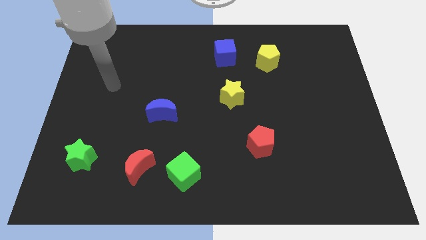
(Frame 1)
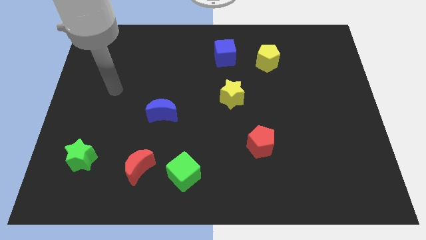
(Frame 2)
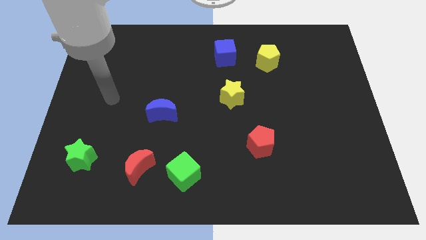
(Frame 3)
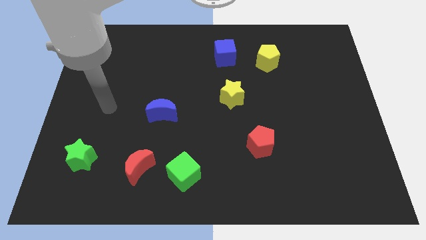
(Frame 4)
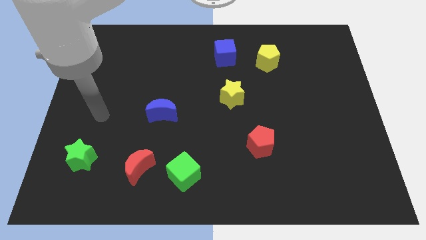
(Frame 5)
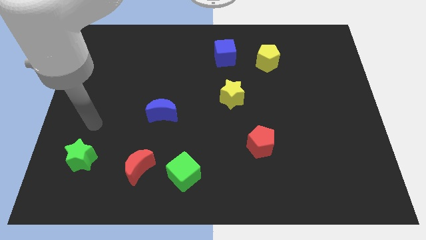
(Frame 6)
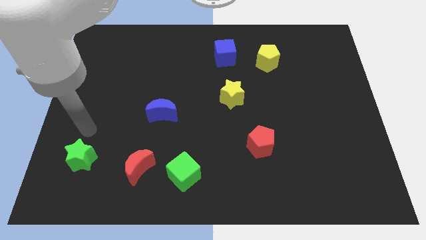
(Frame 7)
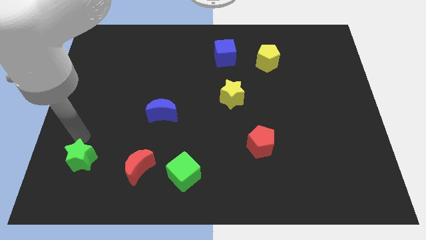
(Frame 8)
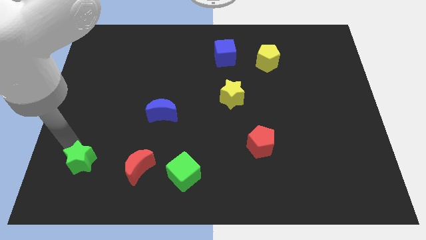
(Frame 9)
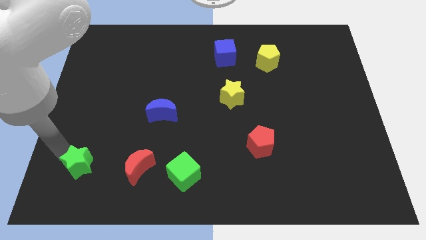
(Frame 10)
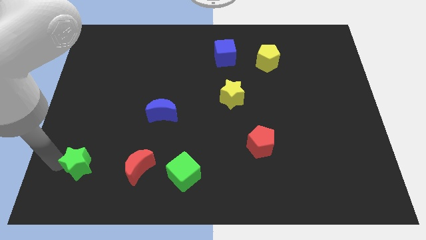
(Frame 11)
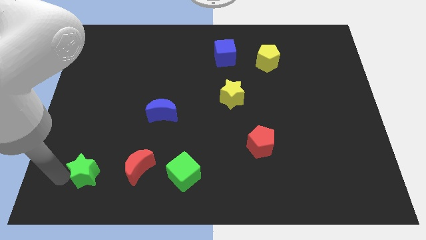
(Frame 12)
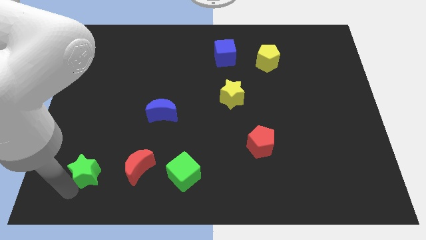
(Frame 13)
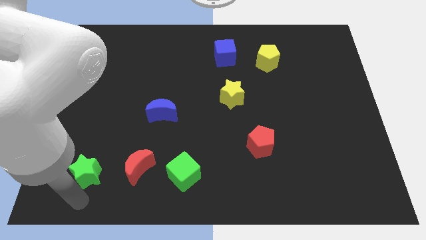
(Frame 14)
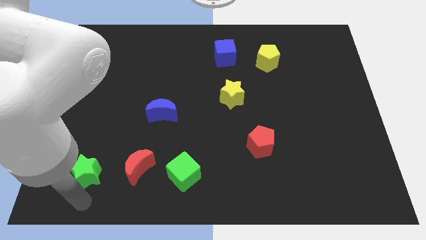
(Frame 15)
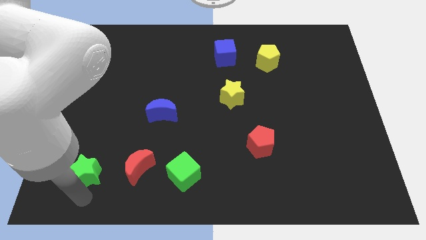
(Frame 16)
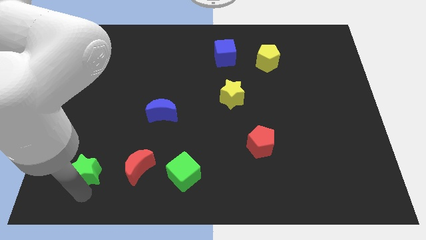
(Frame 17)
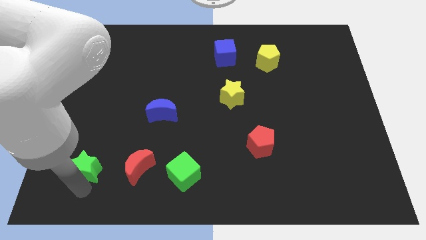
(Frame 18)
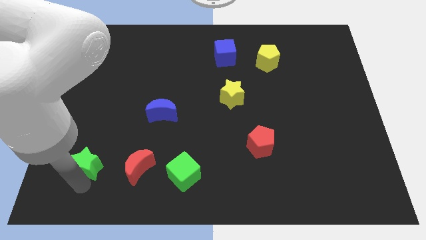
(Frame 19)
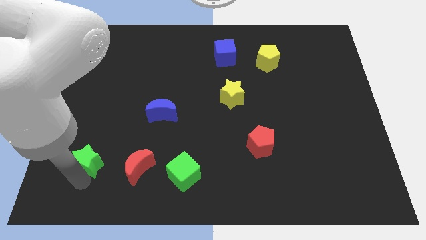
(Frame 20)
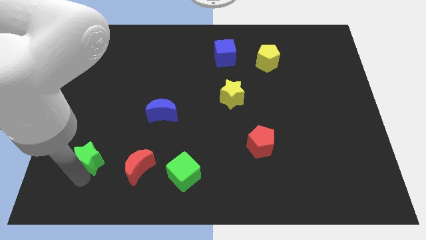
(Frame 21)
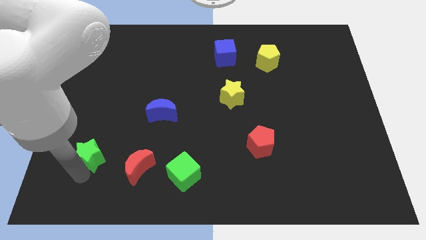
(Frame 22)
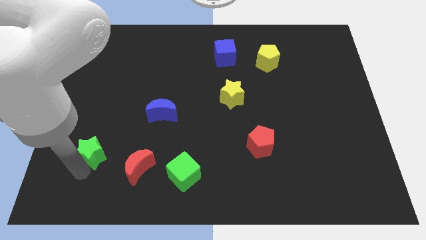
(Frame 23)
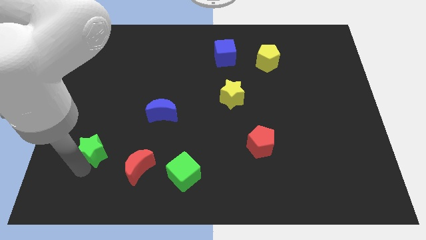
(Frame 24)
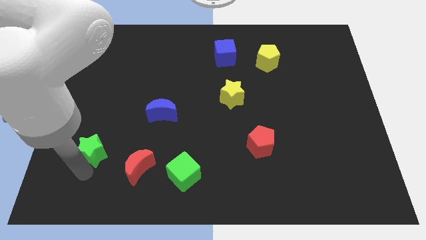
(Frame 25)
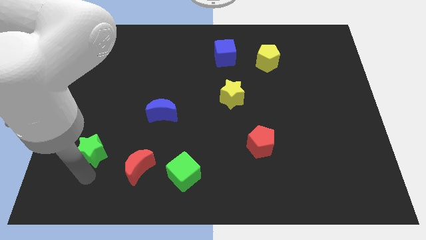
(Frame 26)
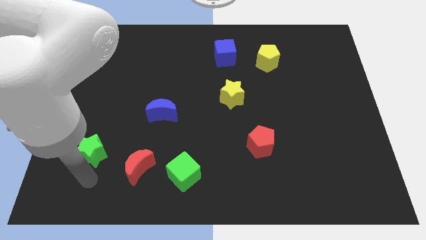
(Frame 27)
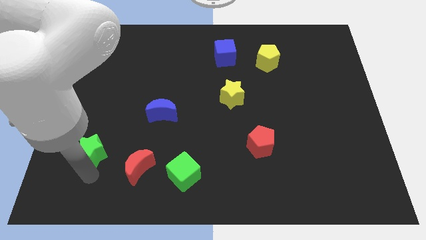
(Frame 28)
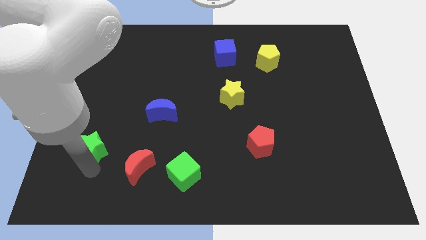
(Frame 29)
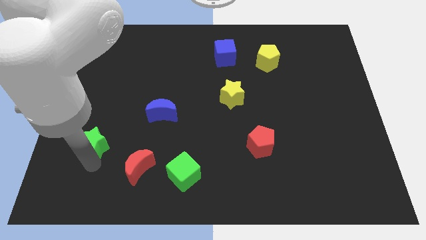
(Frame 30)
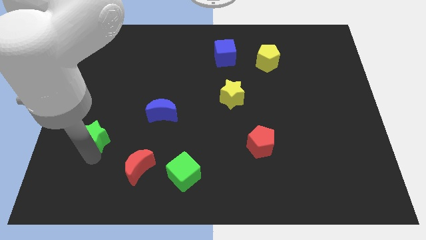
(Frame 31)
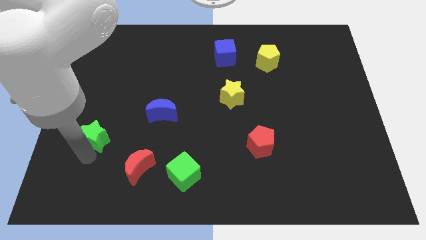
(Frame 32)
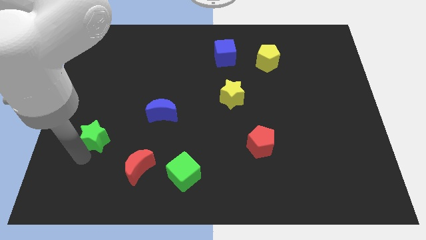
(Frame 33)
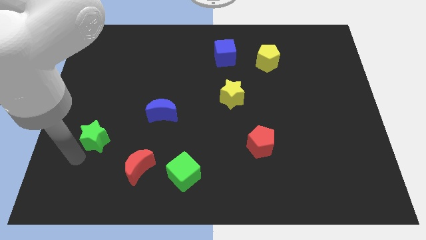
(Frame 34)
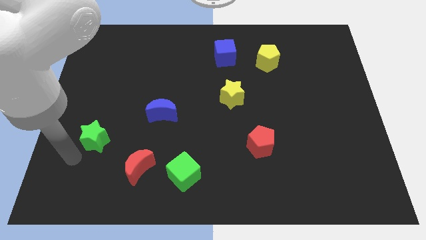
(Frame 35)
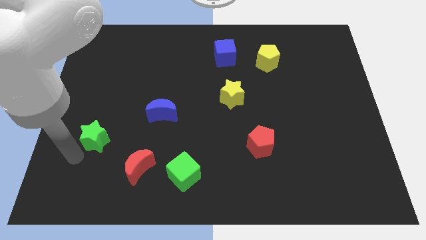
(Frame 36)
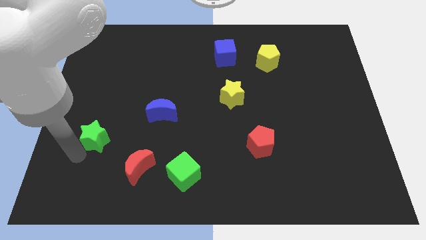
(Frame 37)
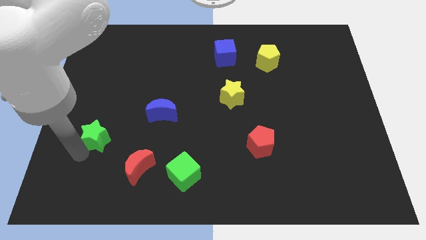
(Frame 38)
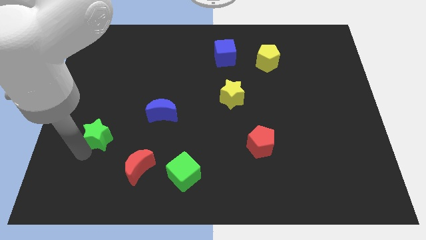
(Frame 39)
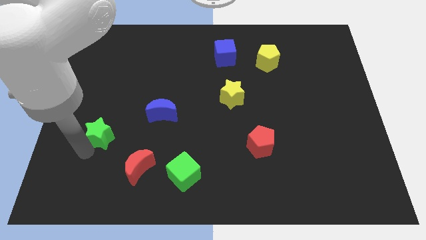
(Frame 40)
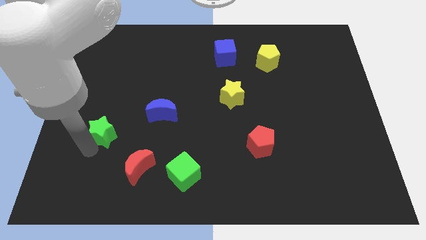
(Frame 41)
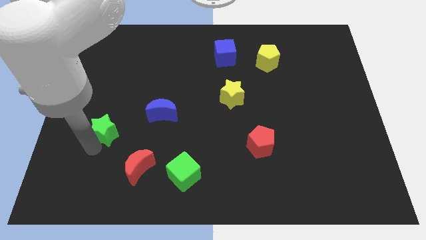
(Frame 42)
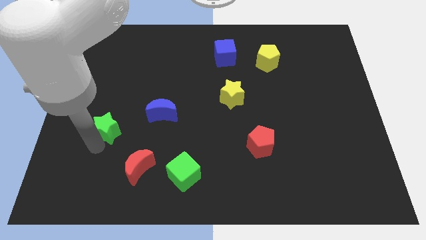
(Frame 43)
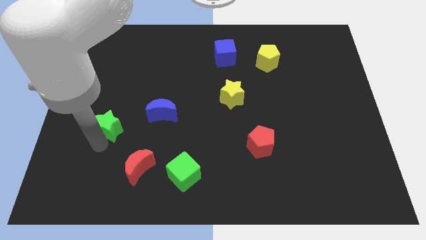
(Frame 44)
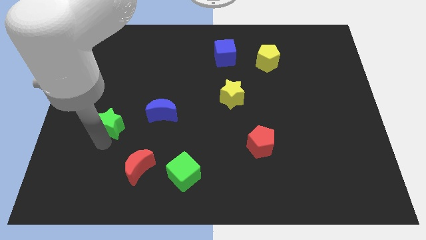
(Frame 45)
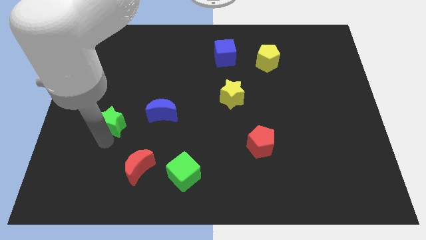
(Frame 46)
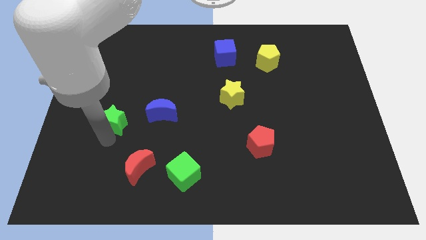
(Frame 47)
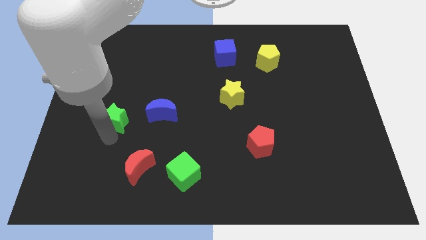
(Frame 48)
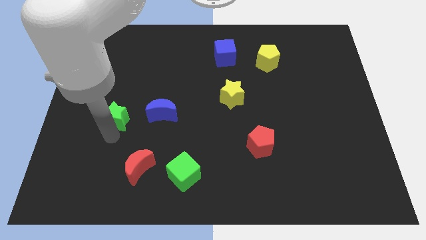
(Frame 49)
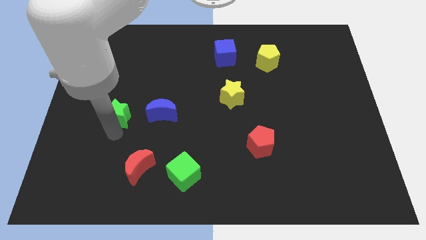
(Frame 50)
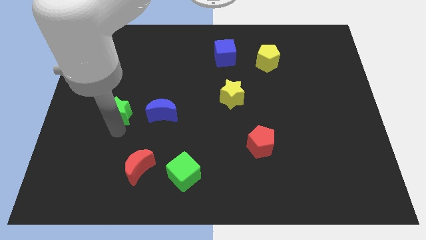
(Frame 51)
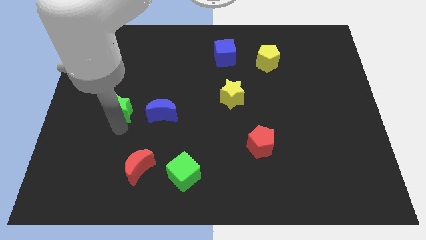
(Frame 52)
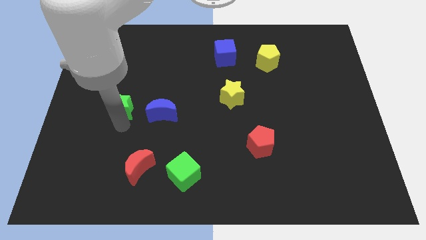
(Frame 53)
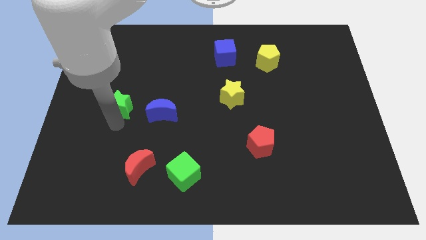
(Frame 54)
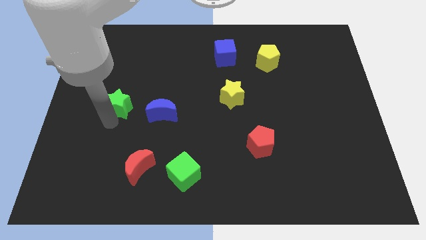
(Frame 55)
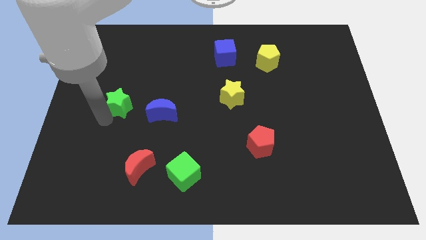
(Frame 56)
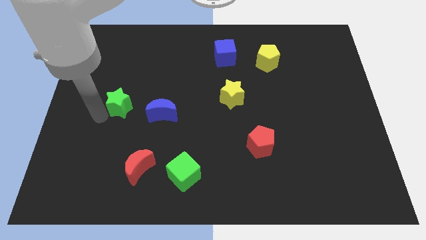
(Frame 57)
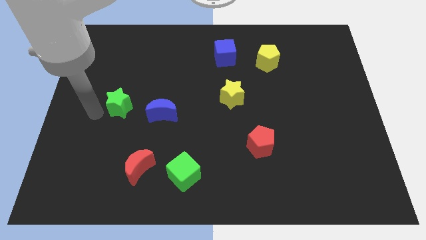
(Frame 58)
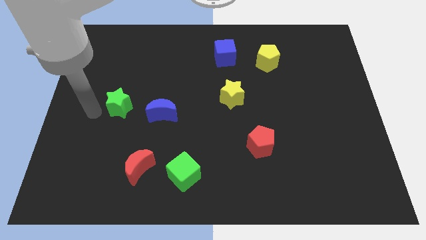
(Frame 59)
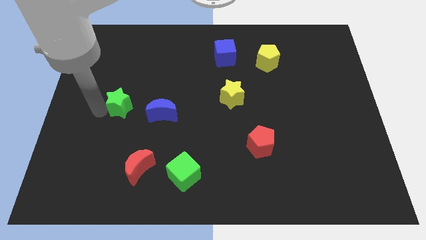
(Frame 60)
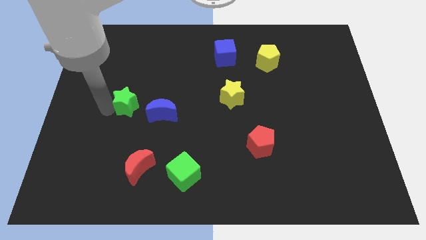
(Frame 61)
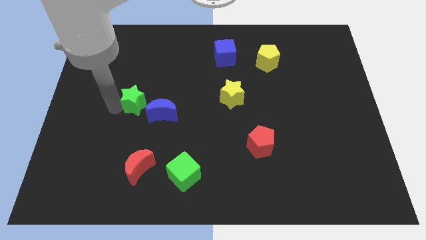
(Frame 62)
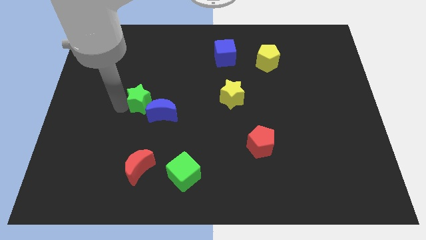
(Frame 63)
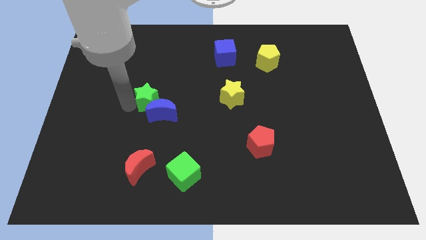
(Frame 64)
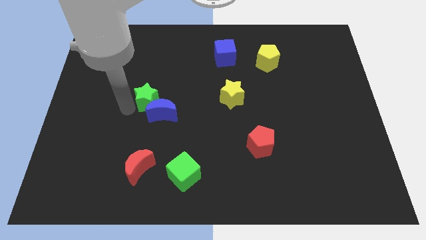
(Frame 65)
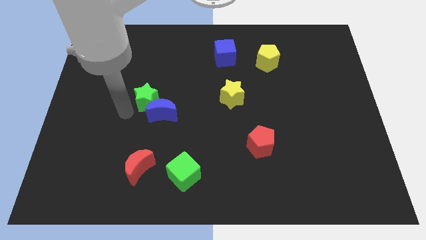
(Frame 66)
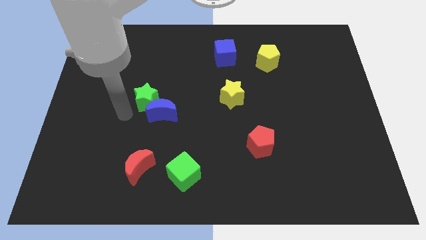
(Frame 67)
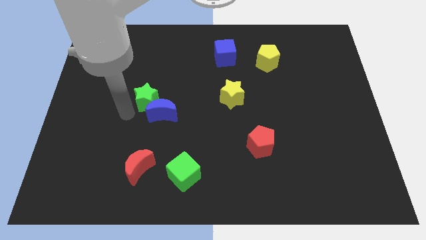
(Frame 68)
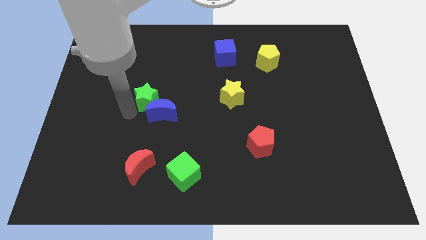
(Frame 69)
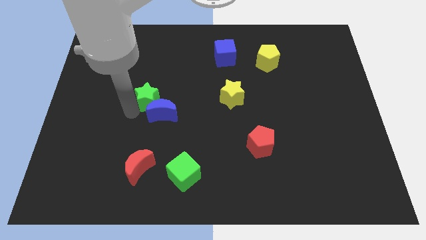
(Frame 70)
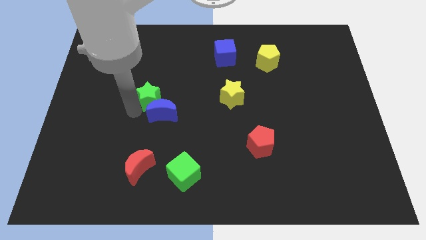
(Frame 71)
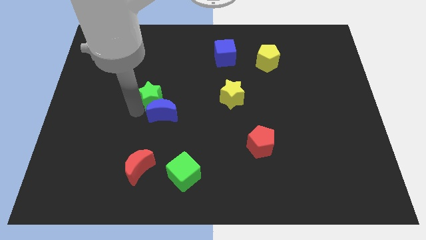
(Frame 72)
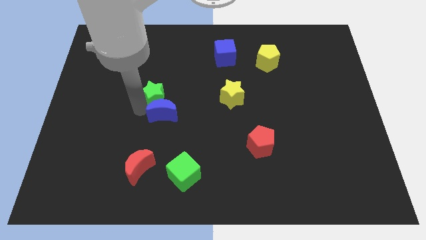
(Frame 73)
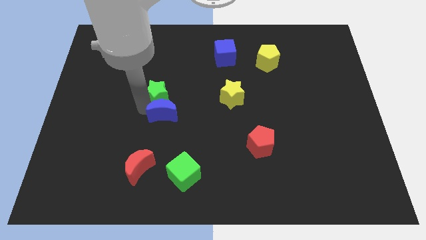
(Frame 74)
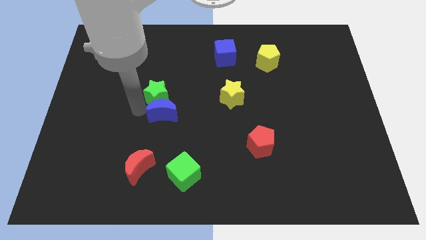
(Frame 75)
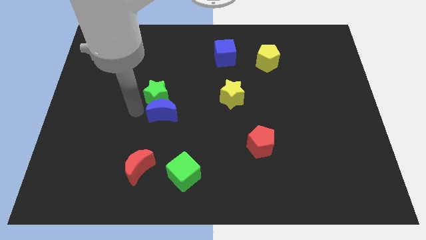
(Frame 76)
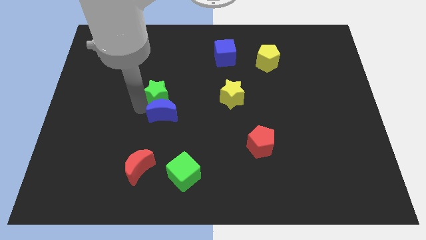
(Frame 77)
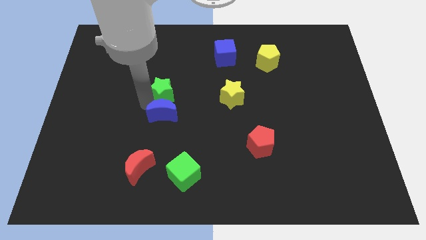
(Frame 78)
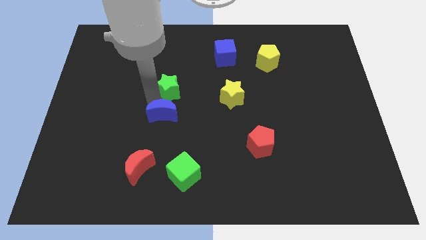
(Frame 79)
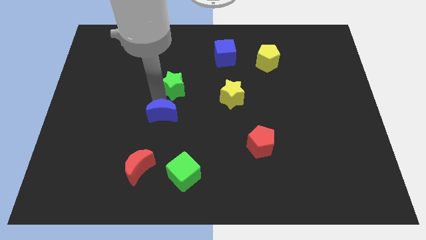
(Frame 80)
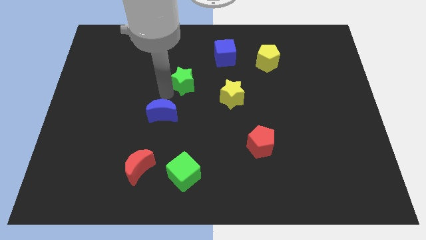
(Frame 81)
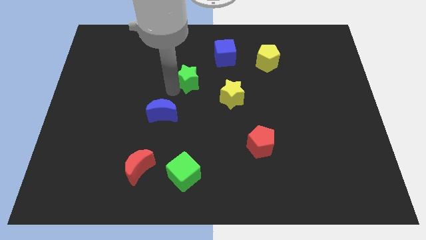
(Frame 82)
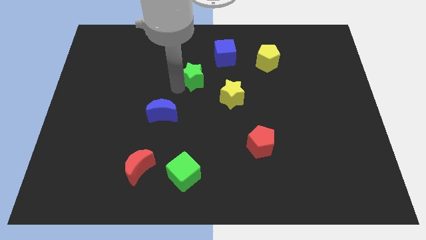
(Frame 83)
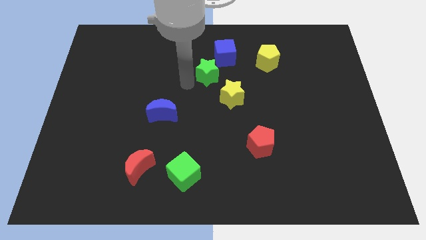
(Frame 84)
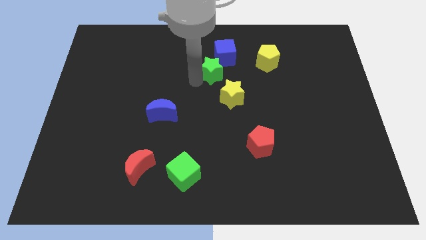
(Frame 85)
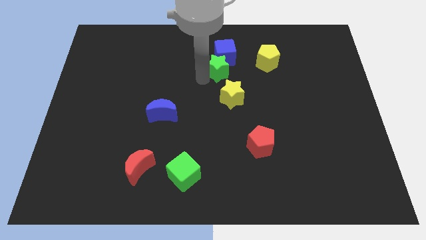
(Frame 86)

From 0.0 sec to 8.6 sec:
put the green star close to the blue cube
